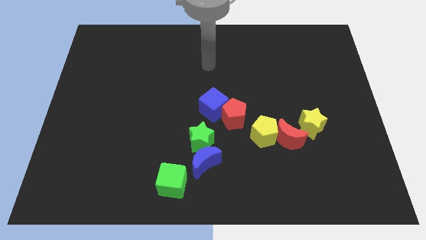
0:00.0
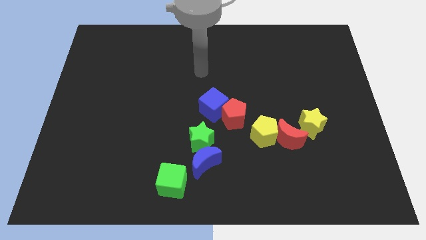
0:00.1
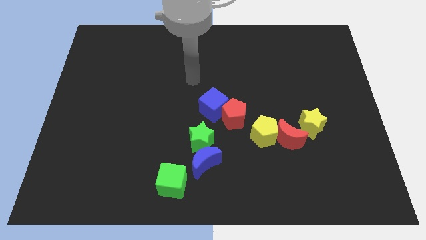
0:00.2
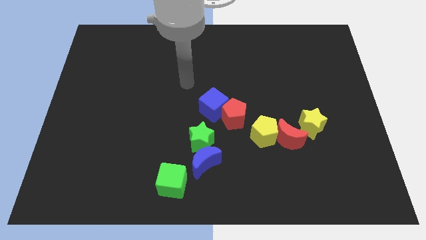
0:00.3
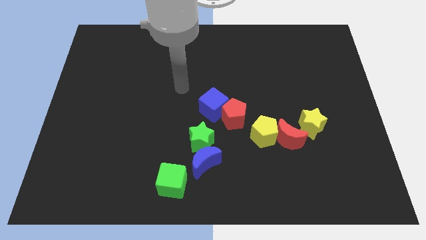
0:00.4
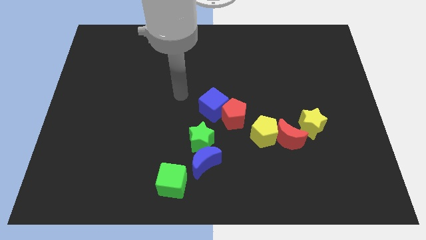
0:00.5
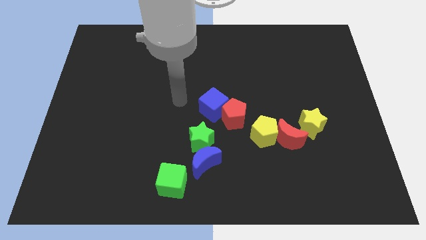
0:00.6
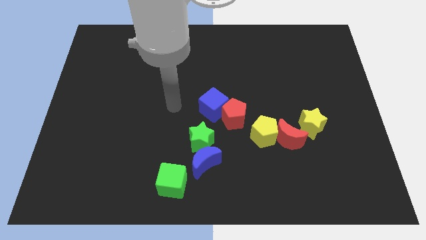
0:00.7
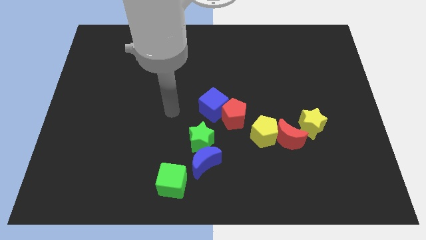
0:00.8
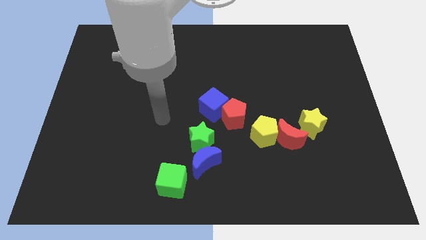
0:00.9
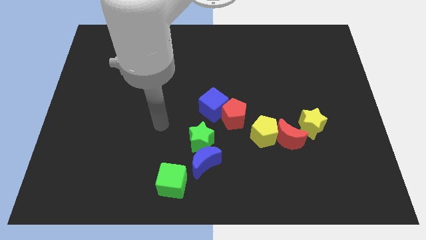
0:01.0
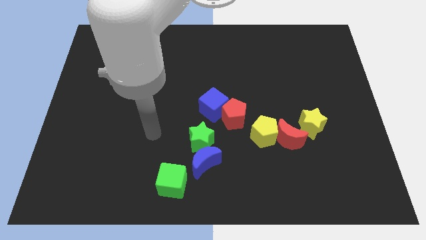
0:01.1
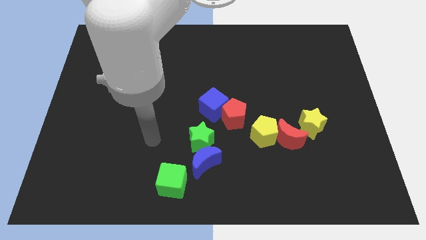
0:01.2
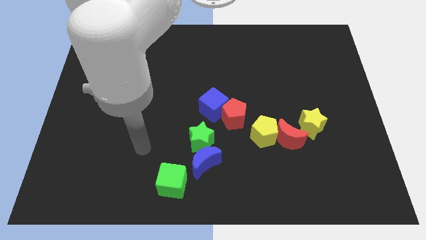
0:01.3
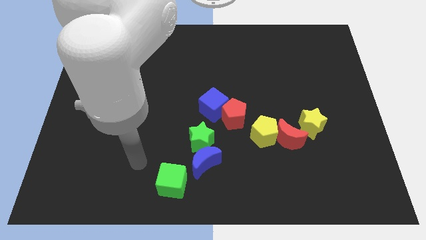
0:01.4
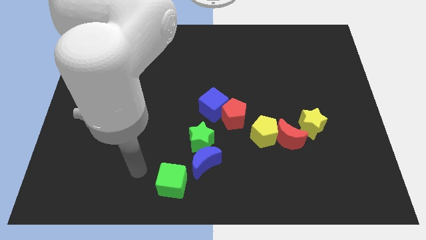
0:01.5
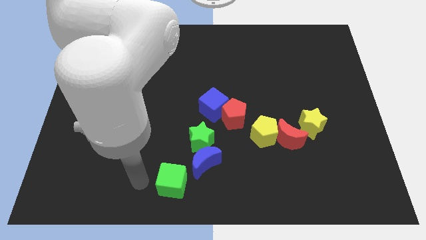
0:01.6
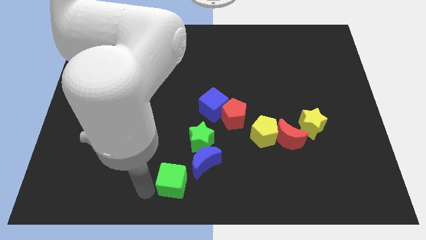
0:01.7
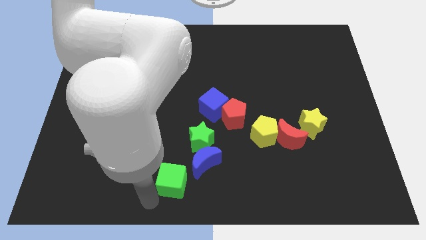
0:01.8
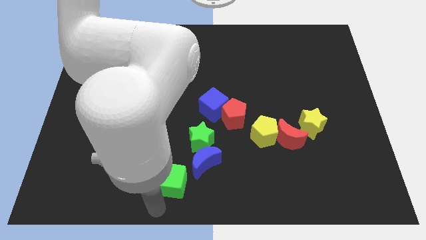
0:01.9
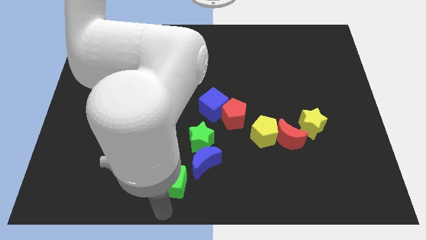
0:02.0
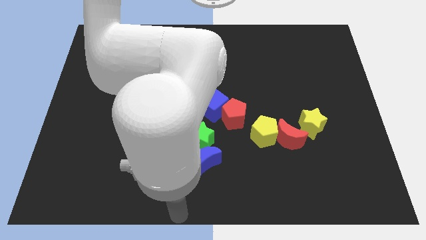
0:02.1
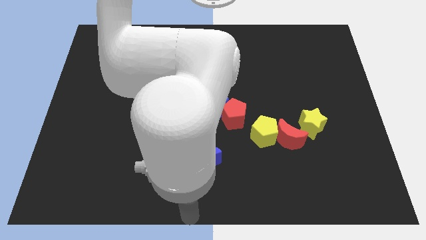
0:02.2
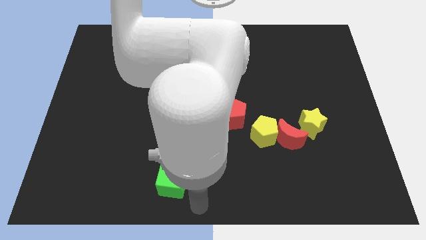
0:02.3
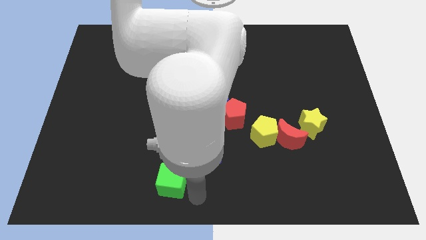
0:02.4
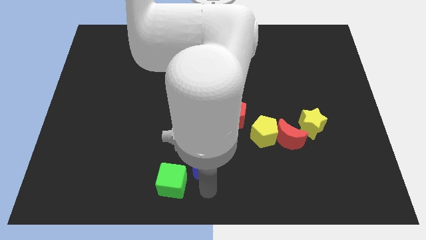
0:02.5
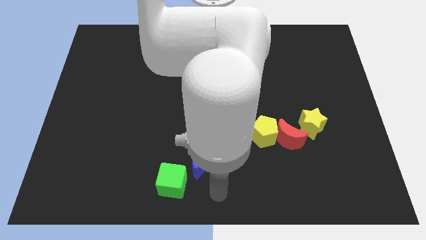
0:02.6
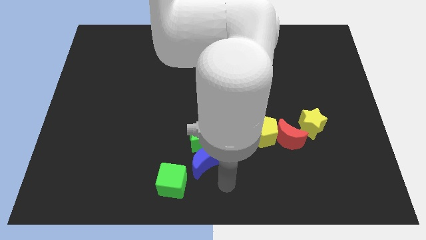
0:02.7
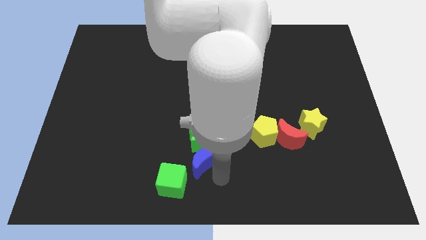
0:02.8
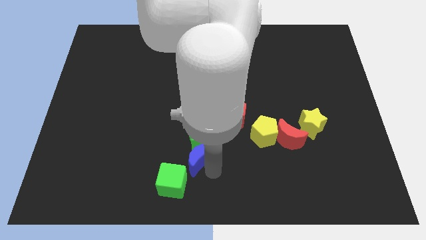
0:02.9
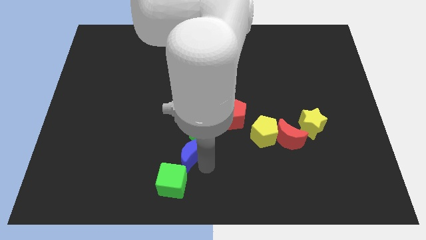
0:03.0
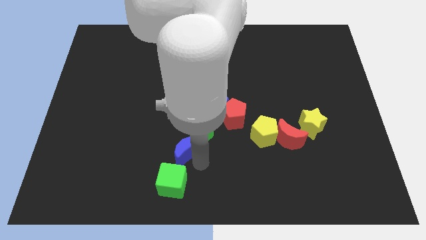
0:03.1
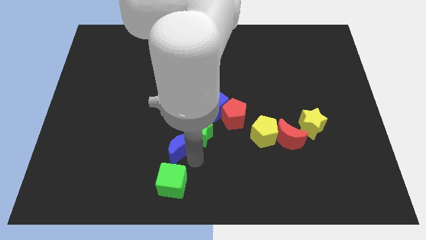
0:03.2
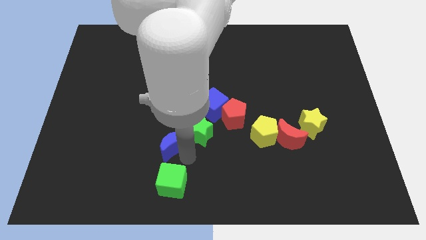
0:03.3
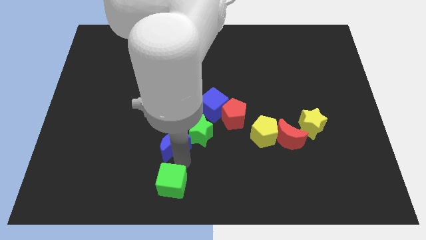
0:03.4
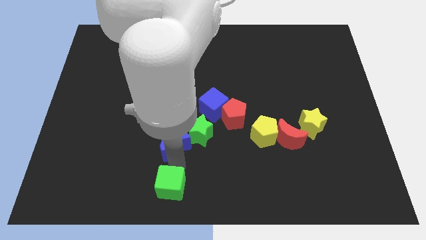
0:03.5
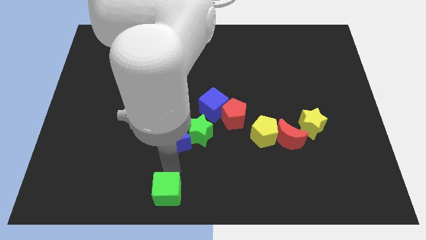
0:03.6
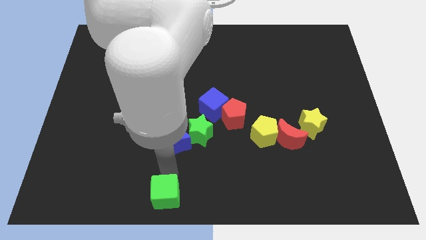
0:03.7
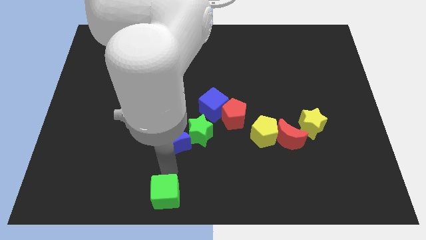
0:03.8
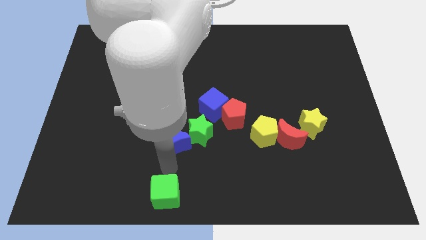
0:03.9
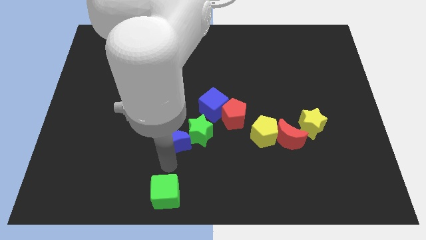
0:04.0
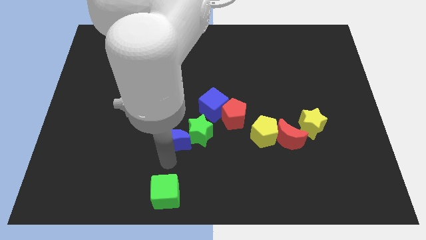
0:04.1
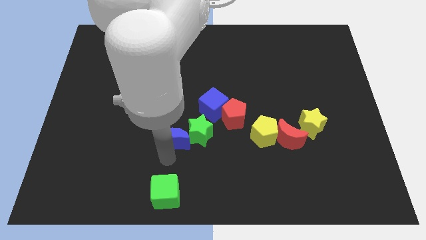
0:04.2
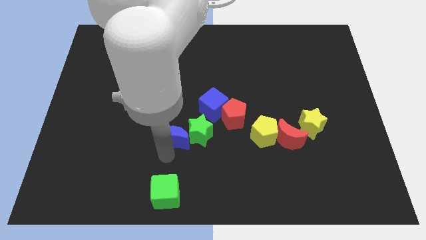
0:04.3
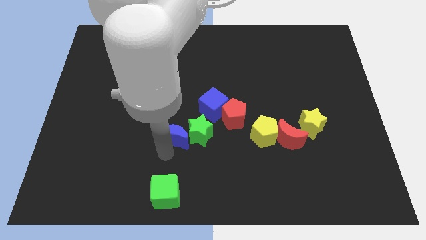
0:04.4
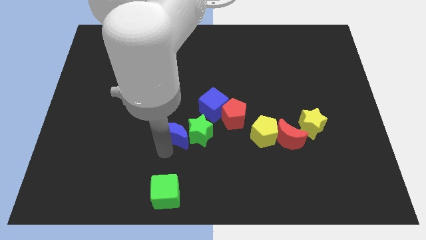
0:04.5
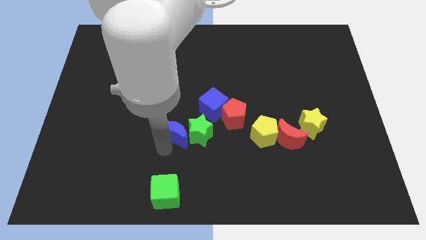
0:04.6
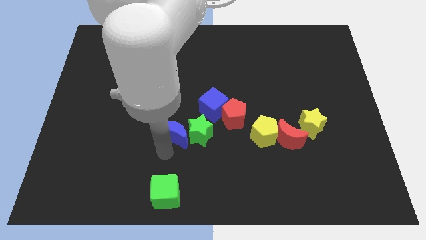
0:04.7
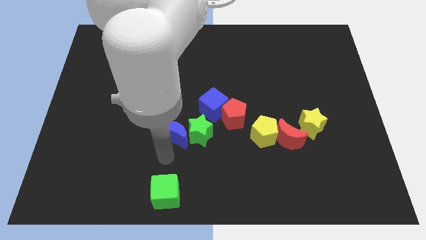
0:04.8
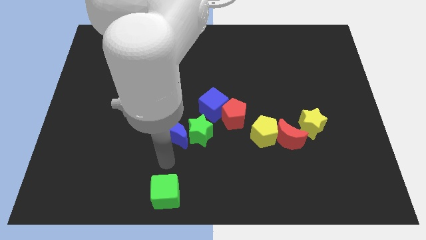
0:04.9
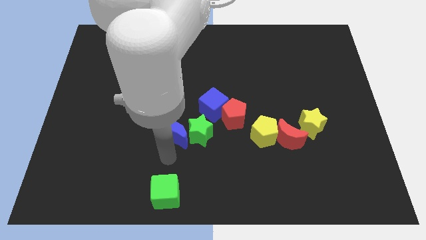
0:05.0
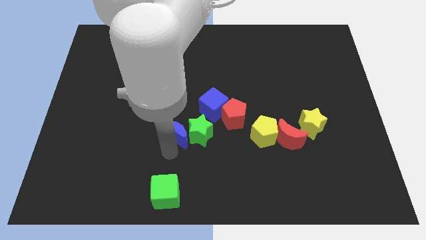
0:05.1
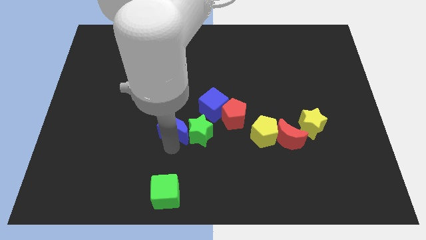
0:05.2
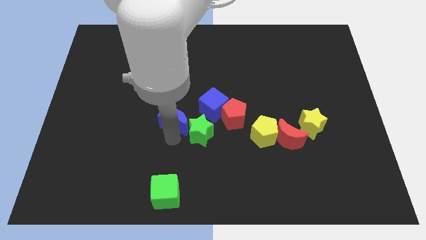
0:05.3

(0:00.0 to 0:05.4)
push the blue moon upwards a little

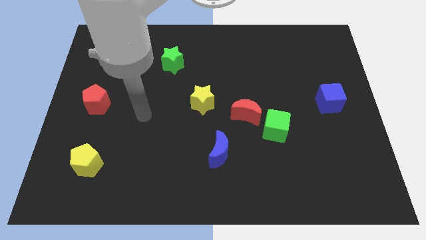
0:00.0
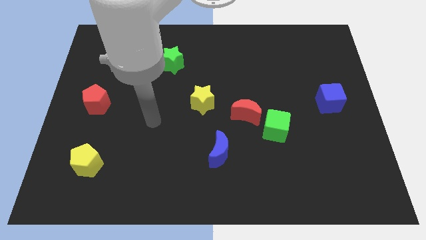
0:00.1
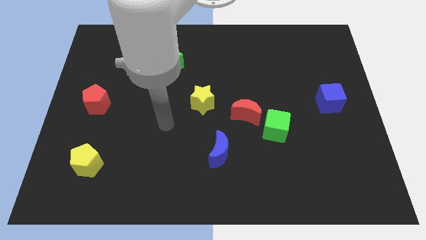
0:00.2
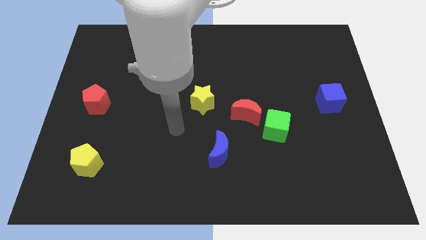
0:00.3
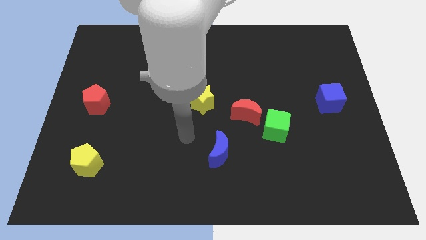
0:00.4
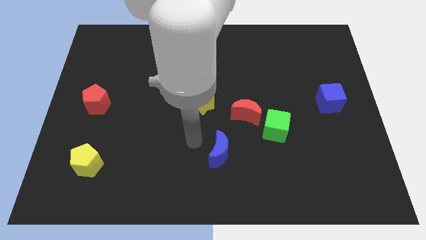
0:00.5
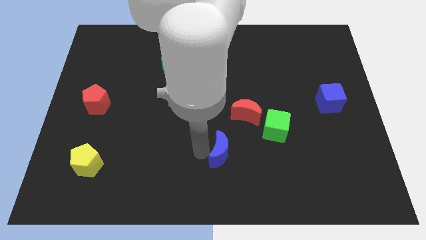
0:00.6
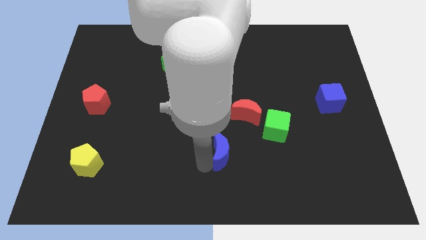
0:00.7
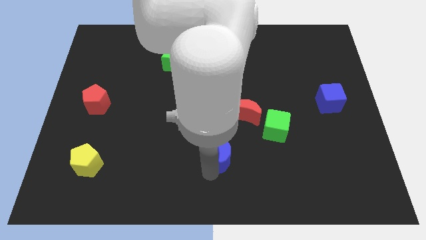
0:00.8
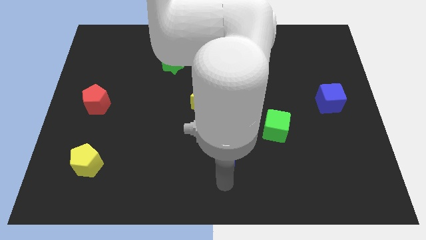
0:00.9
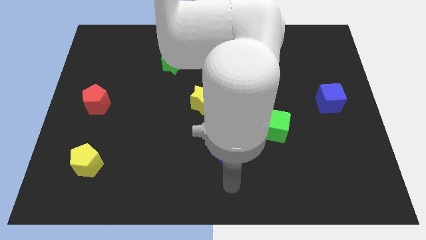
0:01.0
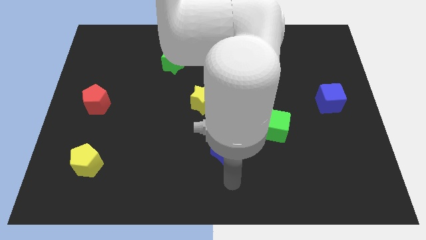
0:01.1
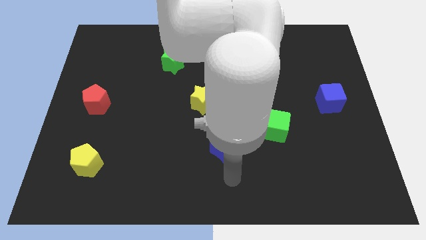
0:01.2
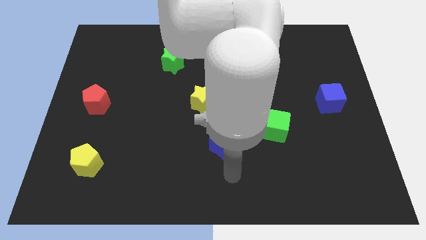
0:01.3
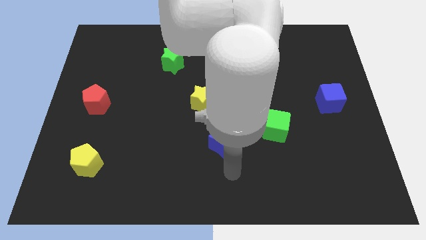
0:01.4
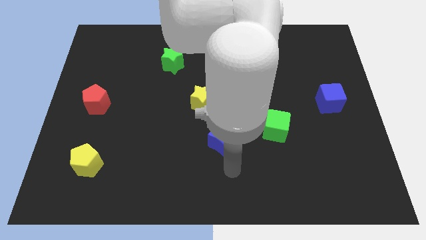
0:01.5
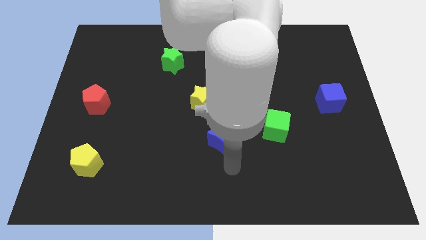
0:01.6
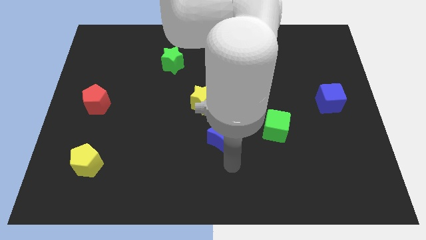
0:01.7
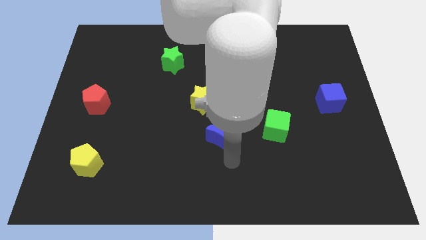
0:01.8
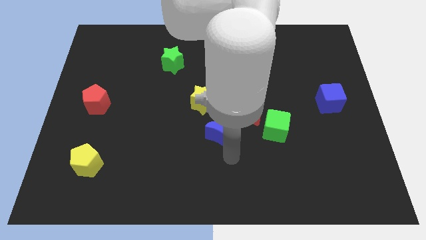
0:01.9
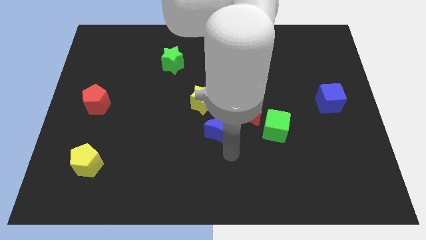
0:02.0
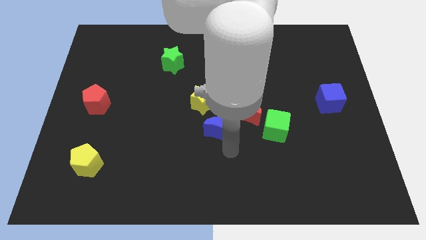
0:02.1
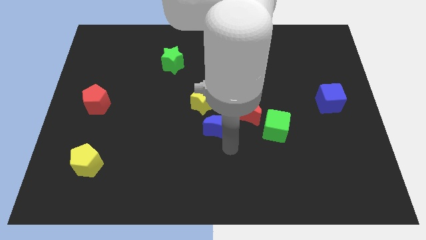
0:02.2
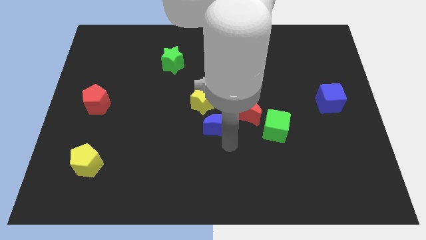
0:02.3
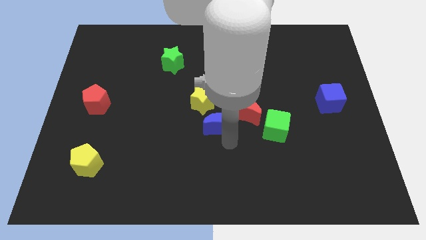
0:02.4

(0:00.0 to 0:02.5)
move the blue moon upwards a little bit

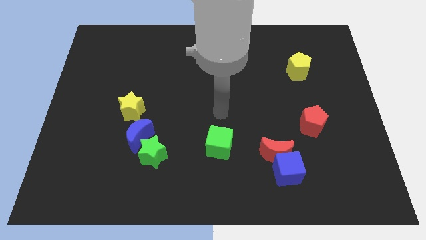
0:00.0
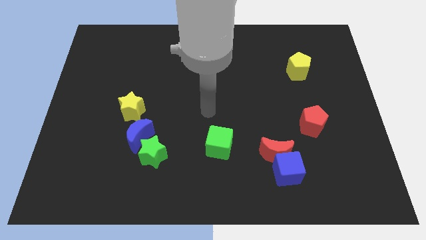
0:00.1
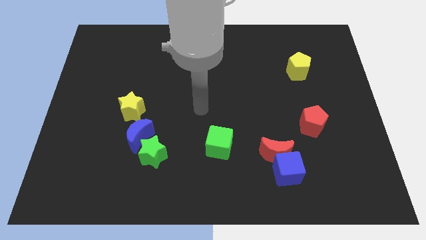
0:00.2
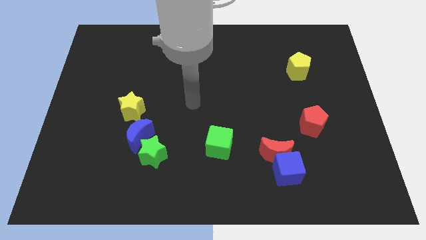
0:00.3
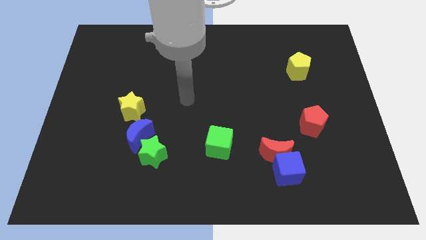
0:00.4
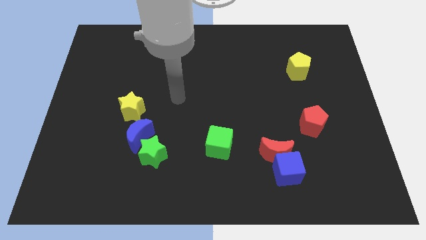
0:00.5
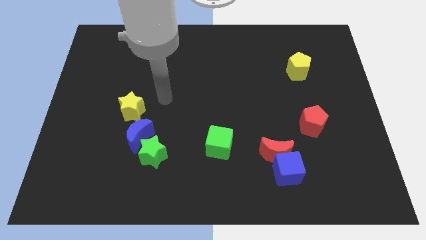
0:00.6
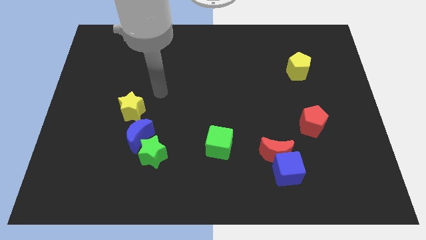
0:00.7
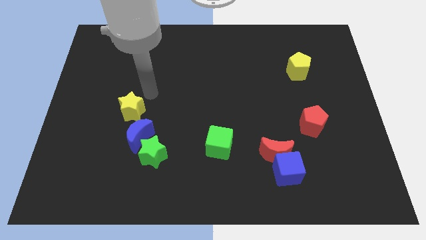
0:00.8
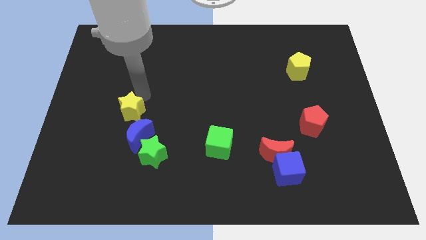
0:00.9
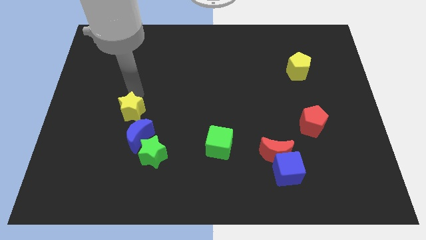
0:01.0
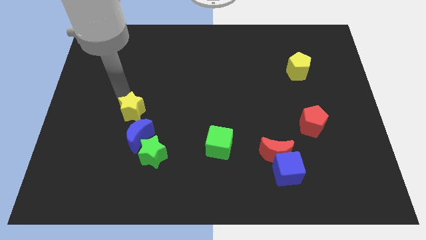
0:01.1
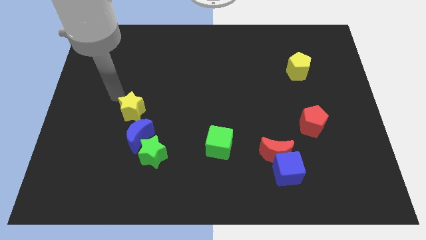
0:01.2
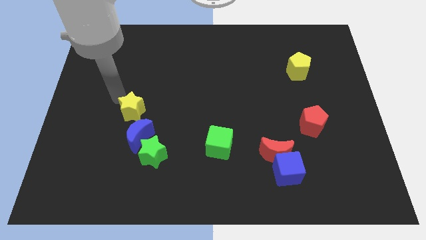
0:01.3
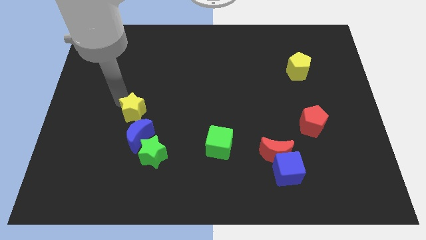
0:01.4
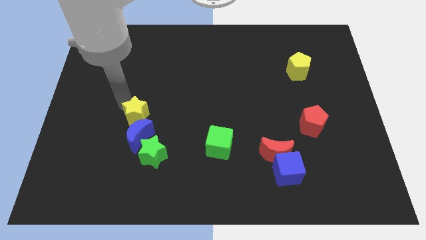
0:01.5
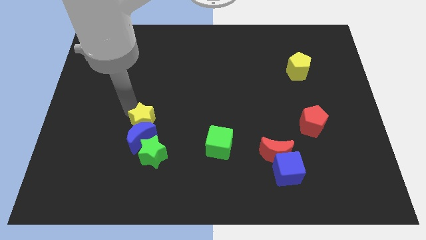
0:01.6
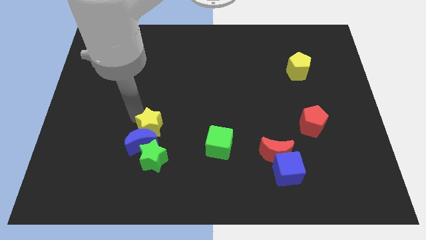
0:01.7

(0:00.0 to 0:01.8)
push the yellow star diagonally downwards and right a little bit
